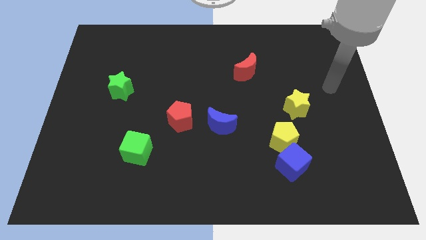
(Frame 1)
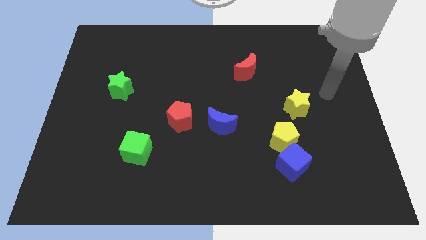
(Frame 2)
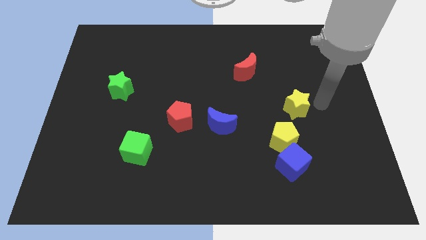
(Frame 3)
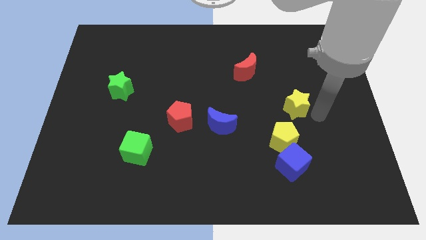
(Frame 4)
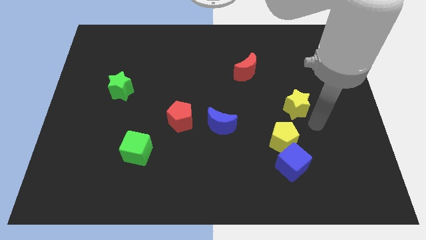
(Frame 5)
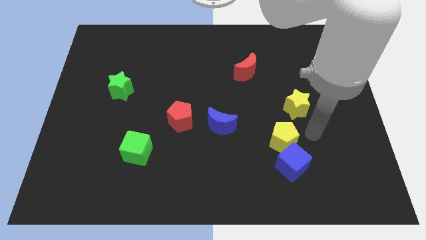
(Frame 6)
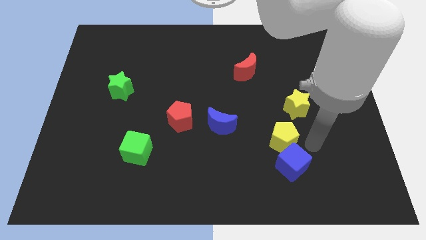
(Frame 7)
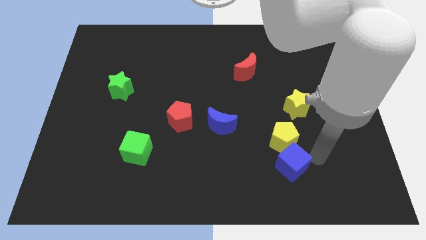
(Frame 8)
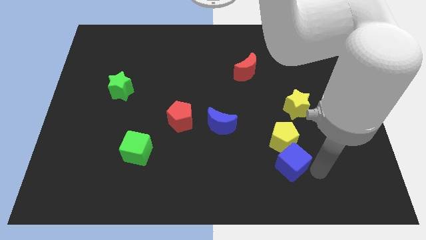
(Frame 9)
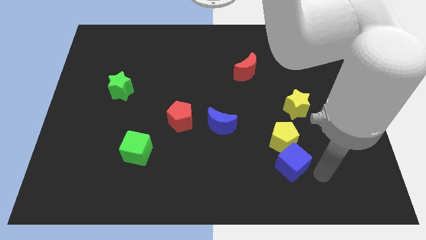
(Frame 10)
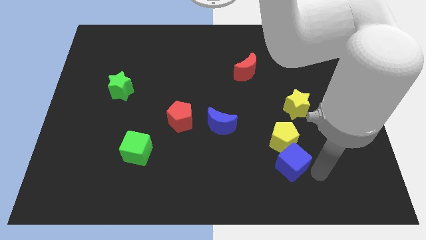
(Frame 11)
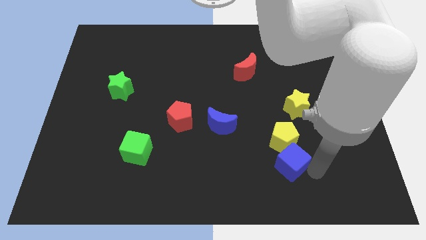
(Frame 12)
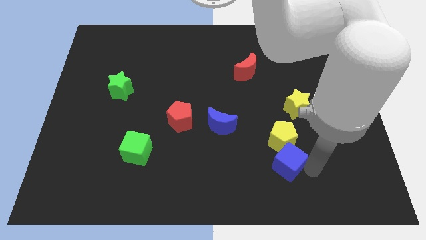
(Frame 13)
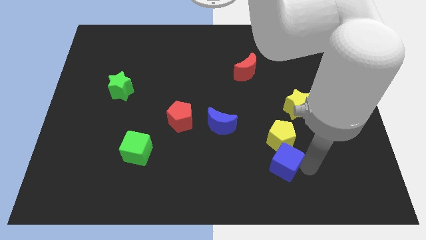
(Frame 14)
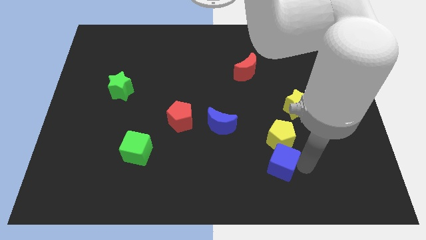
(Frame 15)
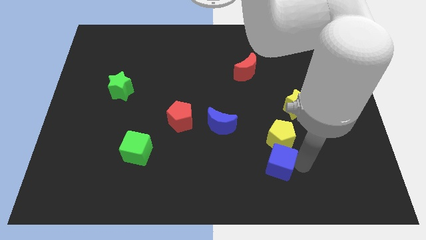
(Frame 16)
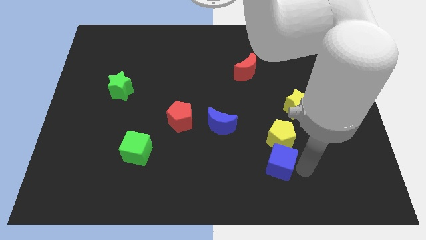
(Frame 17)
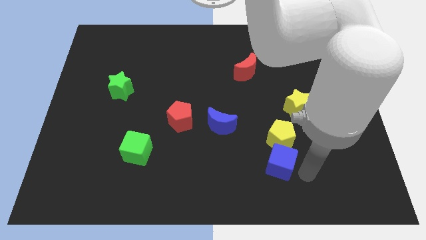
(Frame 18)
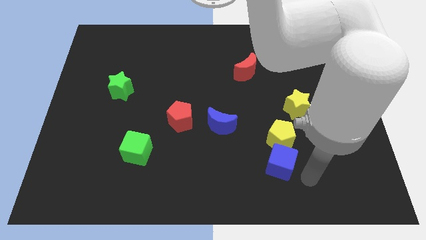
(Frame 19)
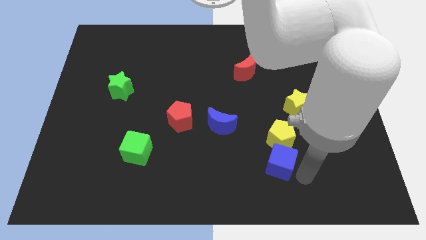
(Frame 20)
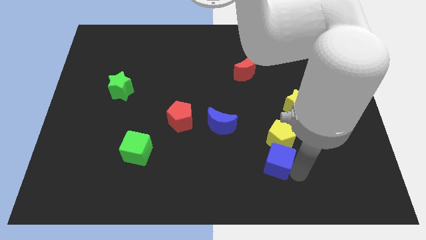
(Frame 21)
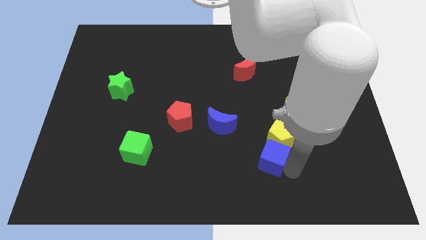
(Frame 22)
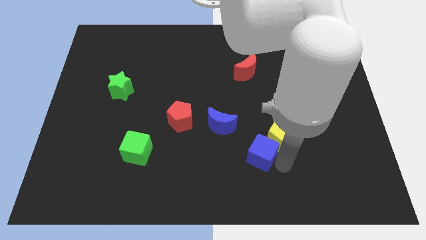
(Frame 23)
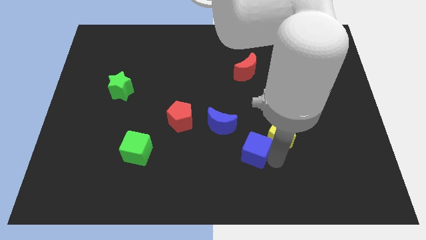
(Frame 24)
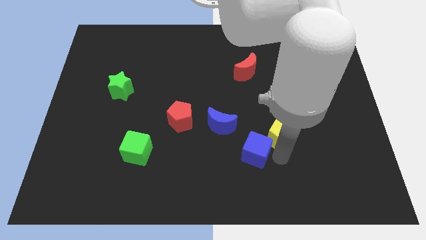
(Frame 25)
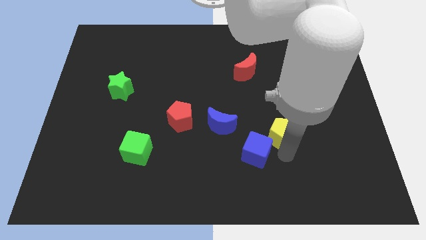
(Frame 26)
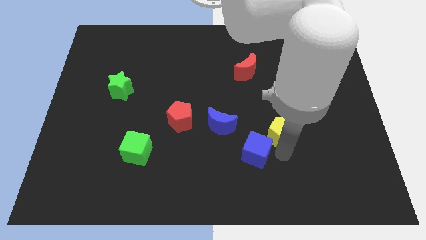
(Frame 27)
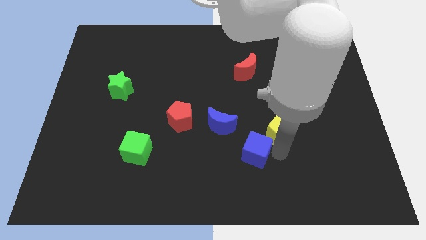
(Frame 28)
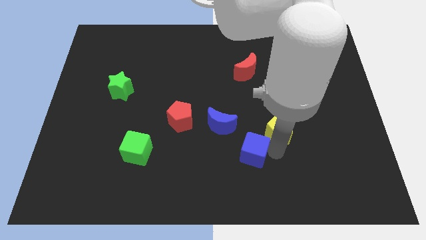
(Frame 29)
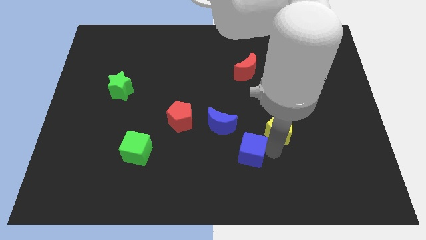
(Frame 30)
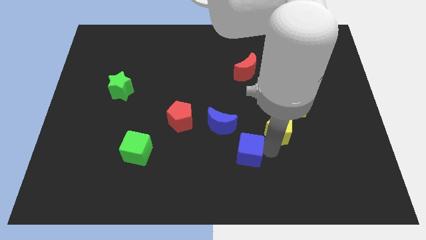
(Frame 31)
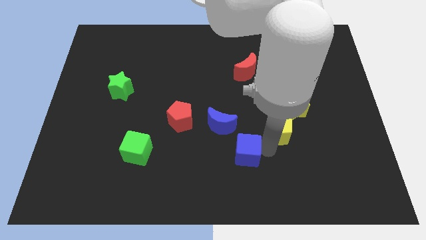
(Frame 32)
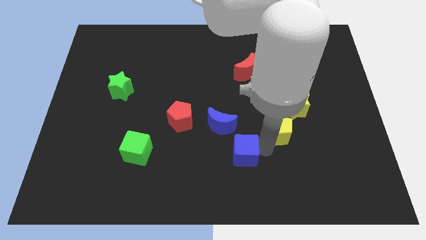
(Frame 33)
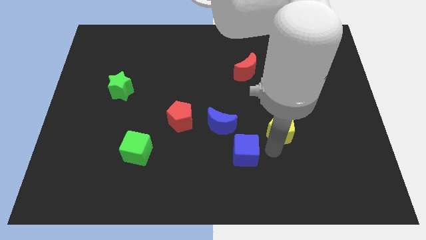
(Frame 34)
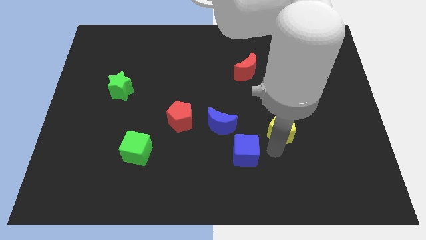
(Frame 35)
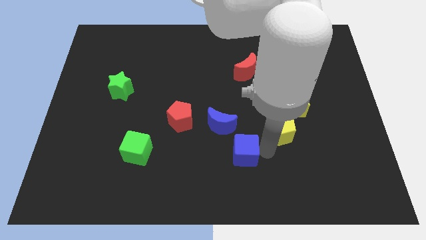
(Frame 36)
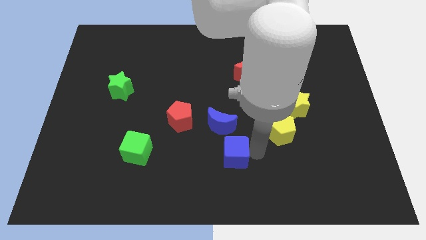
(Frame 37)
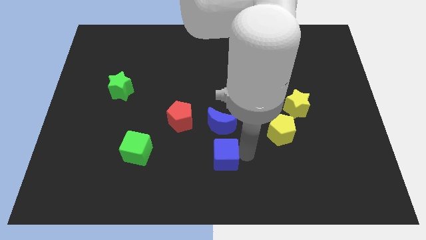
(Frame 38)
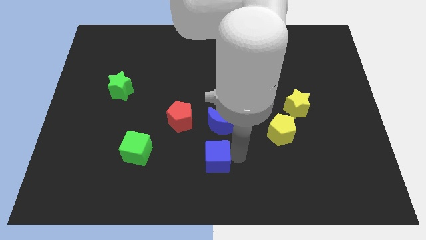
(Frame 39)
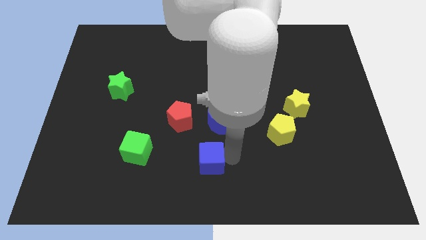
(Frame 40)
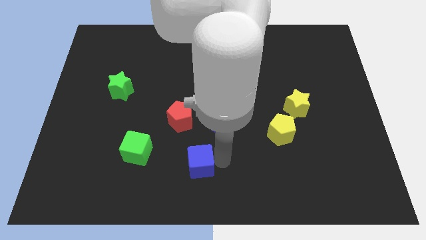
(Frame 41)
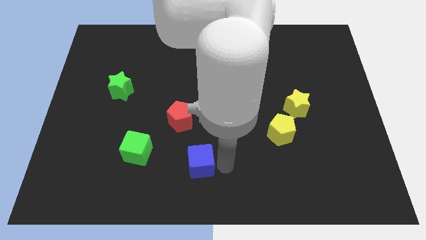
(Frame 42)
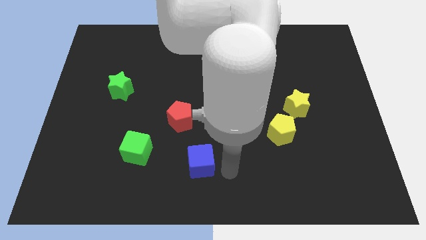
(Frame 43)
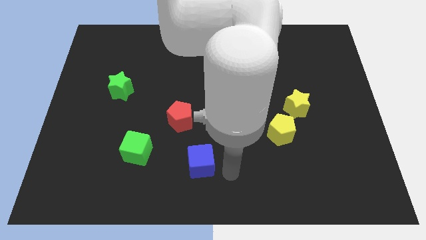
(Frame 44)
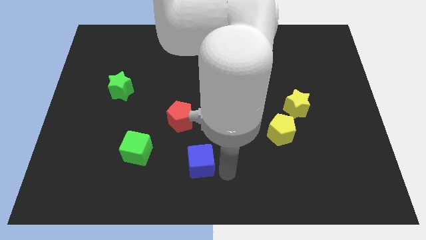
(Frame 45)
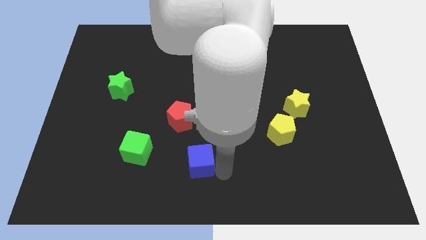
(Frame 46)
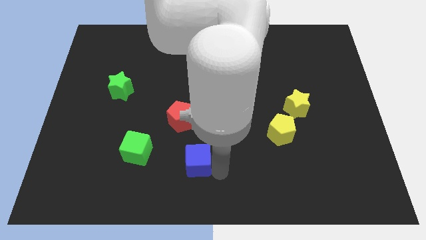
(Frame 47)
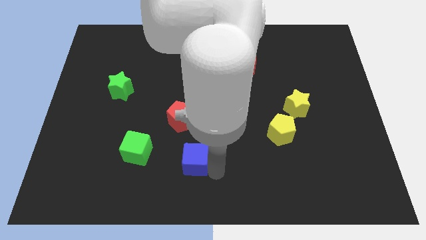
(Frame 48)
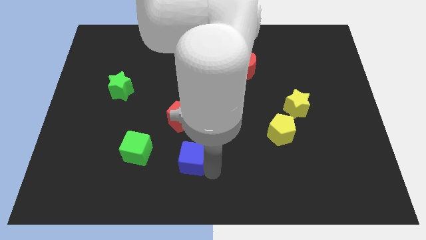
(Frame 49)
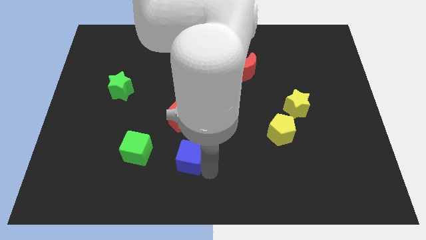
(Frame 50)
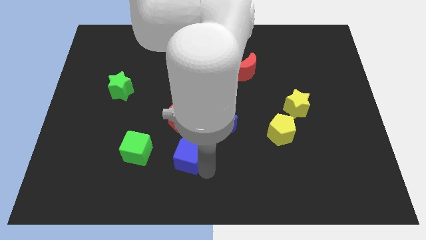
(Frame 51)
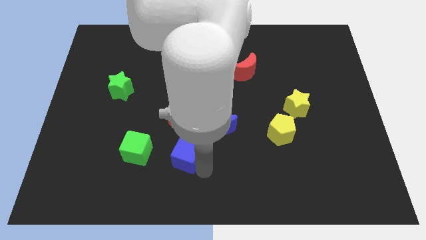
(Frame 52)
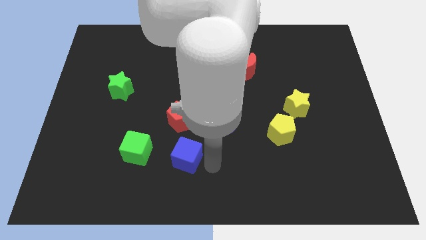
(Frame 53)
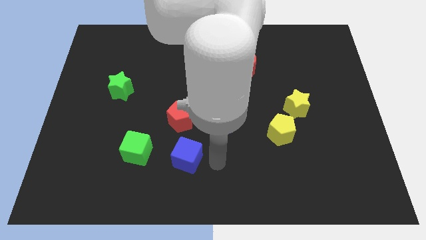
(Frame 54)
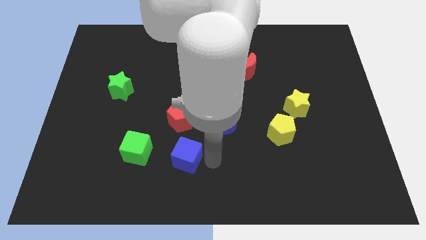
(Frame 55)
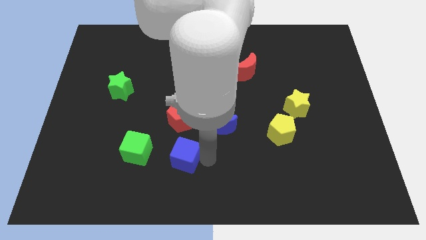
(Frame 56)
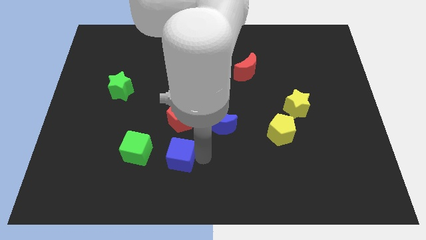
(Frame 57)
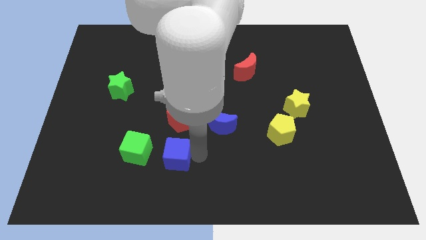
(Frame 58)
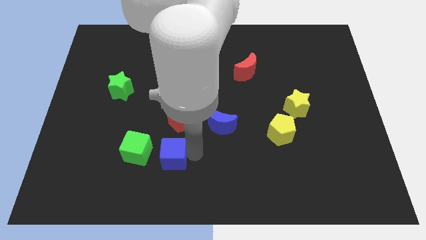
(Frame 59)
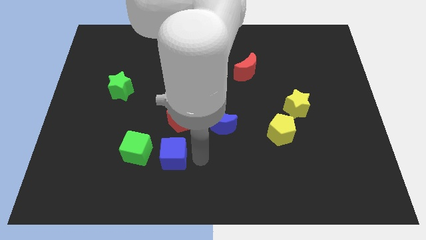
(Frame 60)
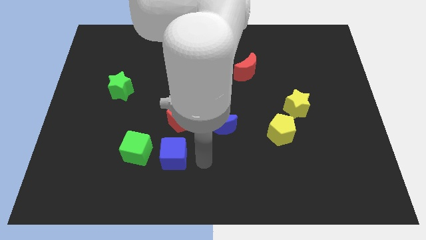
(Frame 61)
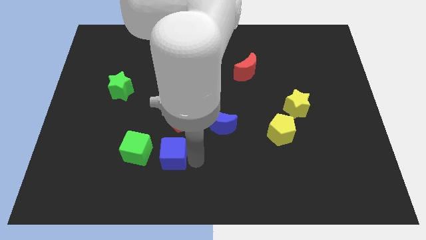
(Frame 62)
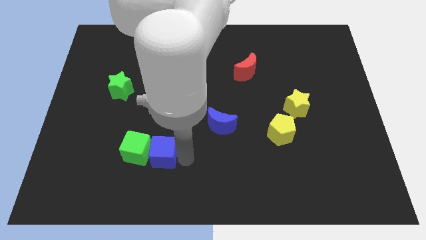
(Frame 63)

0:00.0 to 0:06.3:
move the blue cube towards the green cube

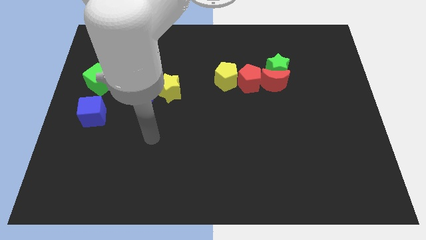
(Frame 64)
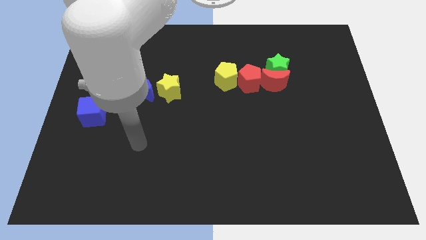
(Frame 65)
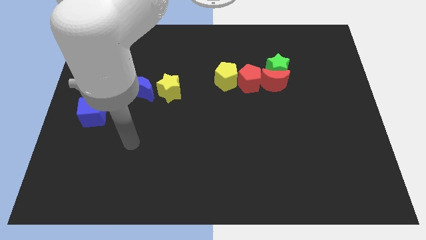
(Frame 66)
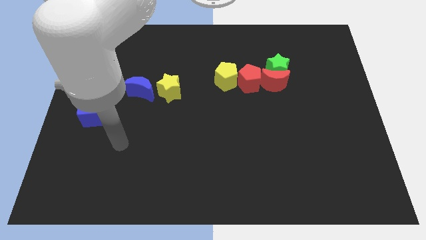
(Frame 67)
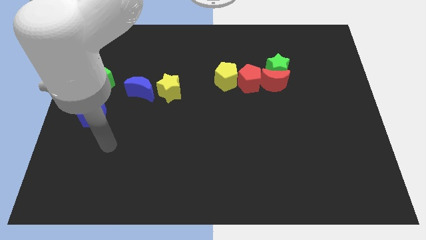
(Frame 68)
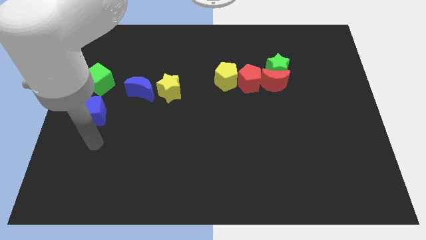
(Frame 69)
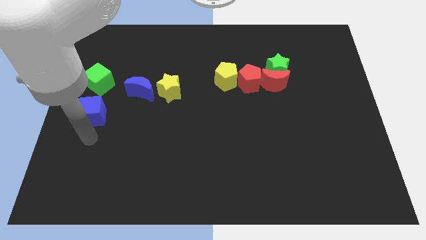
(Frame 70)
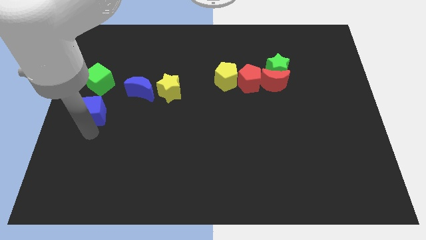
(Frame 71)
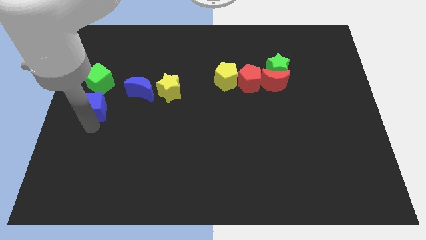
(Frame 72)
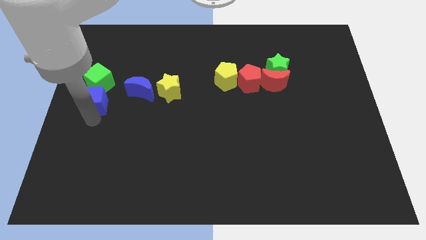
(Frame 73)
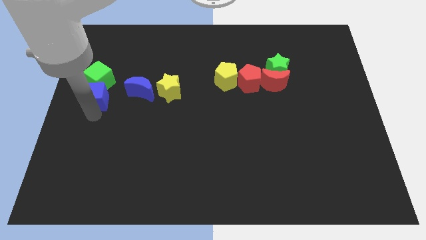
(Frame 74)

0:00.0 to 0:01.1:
push the blue cube to the green cube

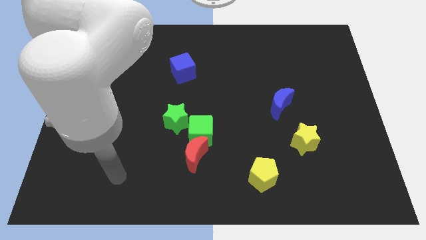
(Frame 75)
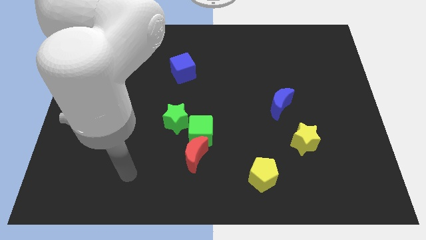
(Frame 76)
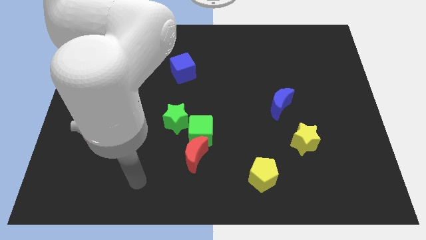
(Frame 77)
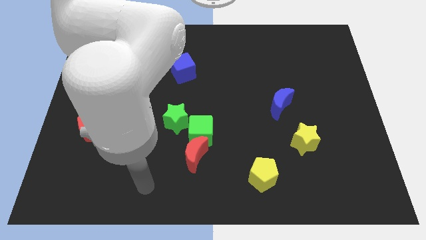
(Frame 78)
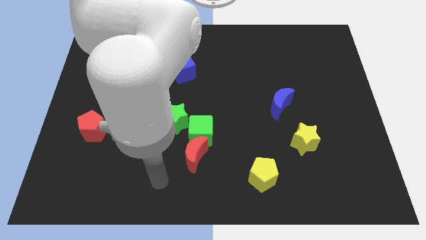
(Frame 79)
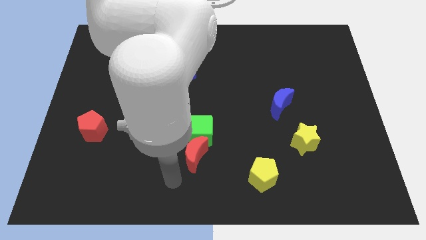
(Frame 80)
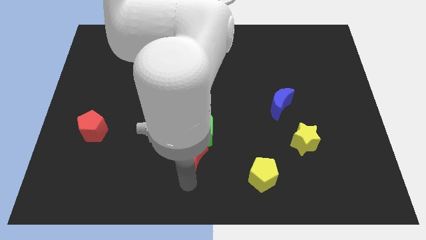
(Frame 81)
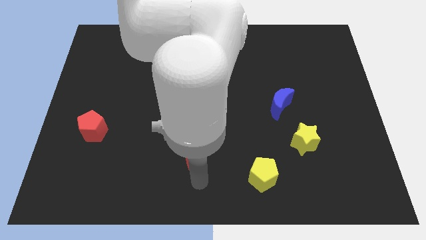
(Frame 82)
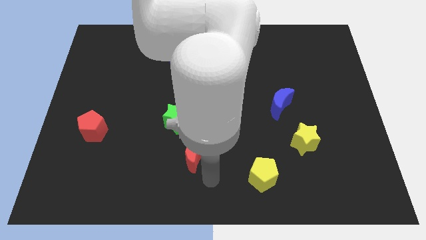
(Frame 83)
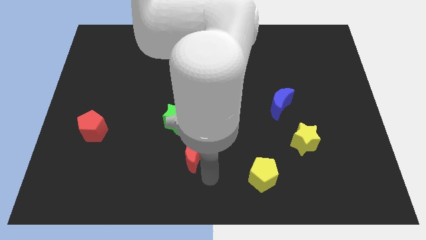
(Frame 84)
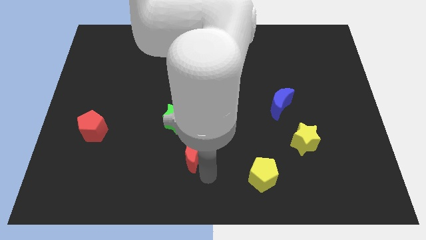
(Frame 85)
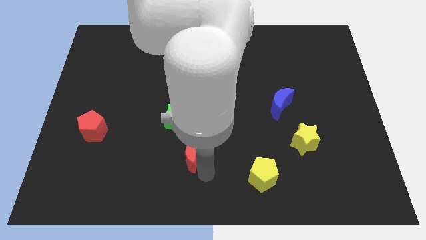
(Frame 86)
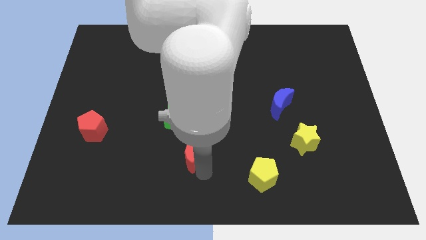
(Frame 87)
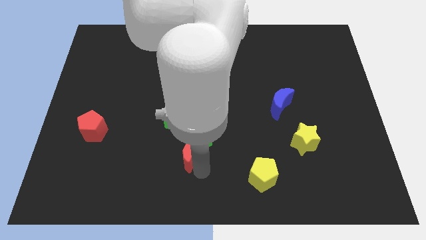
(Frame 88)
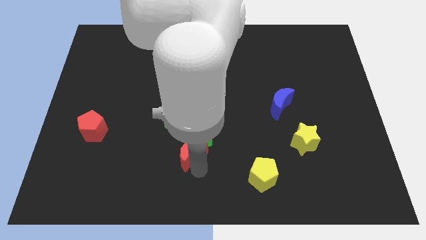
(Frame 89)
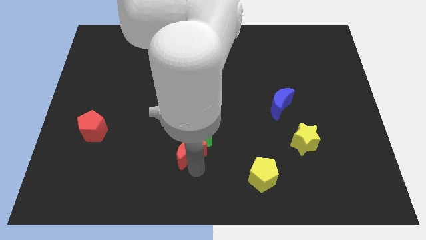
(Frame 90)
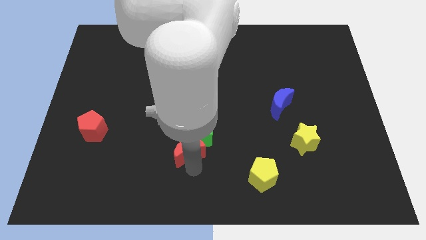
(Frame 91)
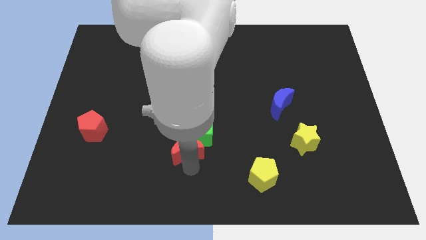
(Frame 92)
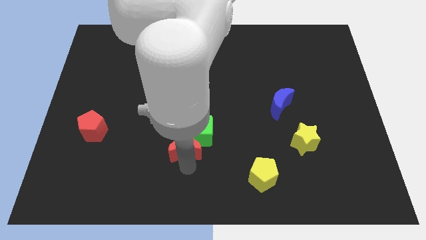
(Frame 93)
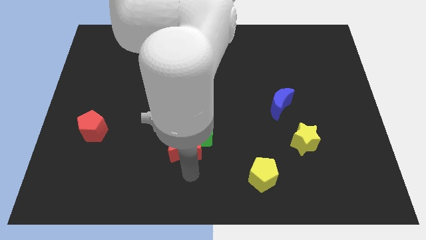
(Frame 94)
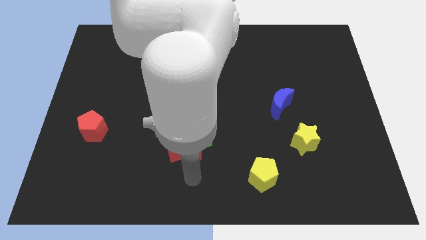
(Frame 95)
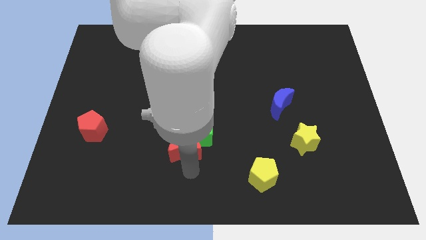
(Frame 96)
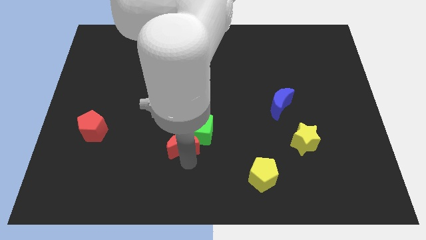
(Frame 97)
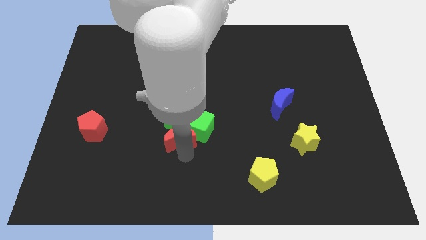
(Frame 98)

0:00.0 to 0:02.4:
put the red moon to the green star
